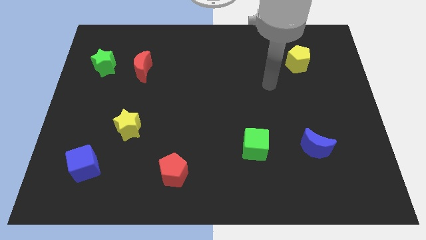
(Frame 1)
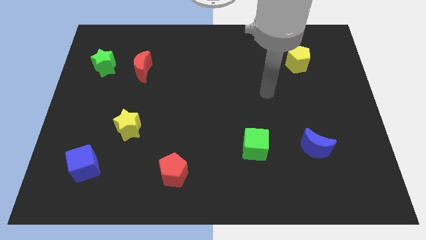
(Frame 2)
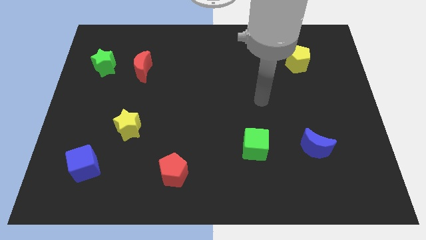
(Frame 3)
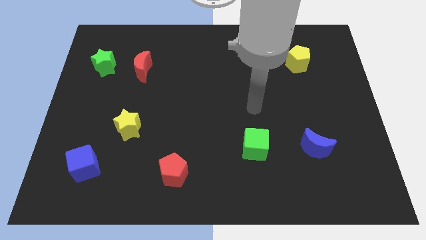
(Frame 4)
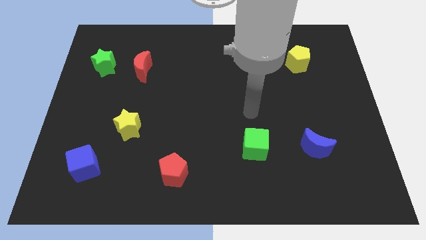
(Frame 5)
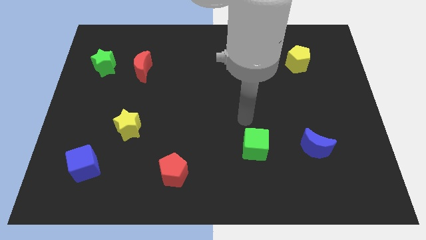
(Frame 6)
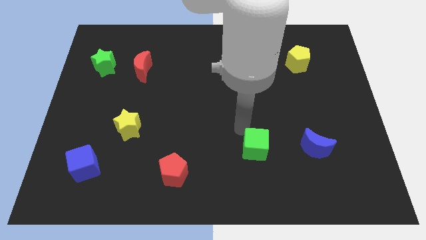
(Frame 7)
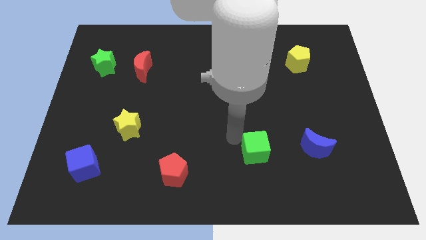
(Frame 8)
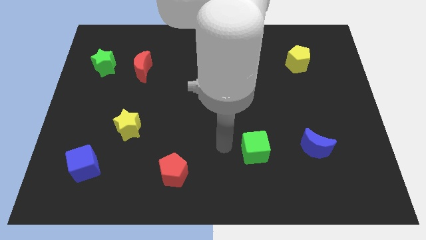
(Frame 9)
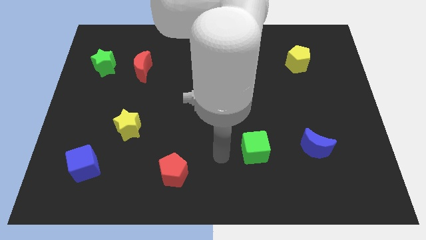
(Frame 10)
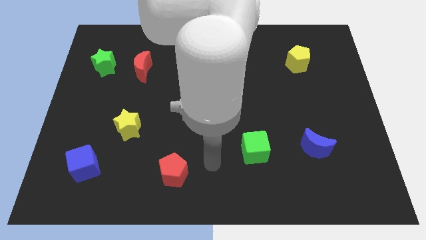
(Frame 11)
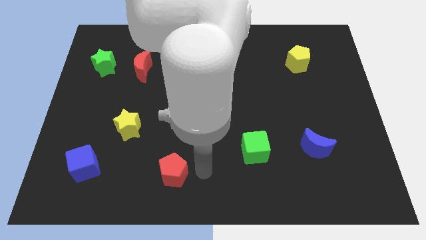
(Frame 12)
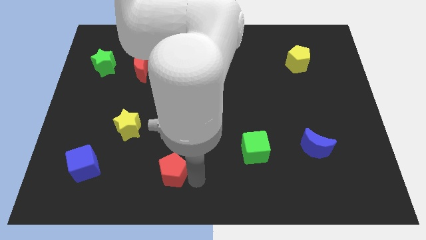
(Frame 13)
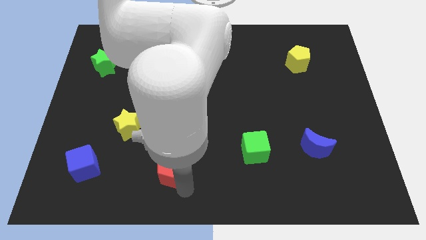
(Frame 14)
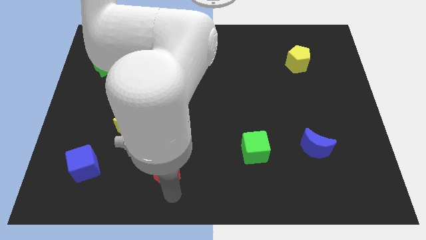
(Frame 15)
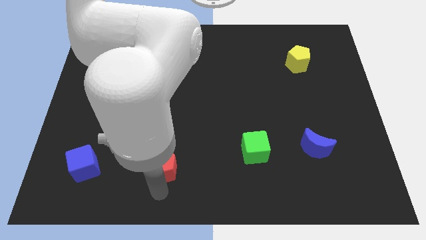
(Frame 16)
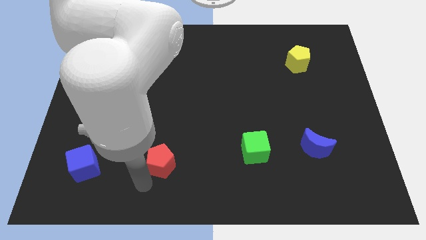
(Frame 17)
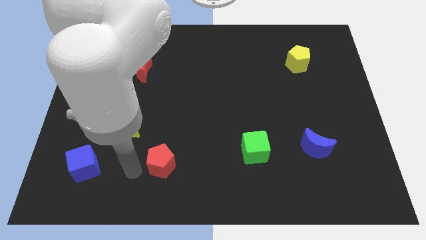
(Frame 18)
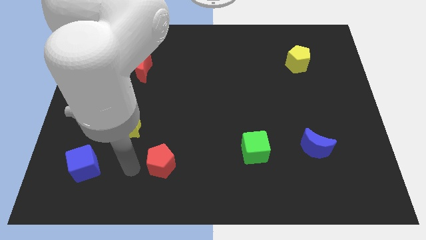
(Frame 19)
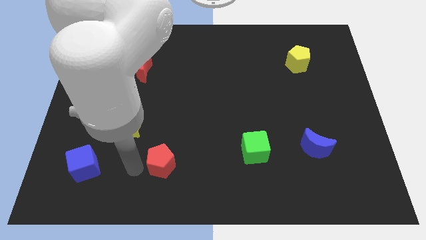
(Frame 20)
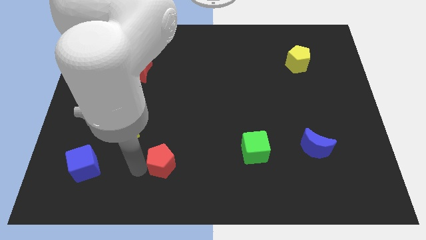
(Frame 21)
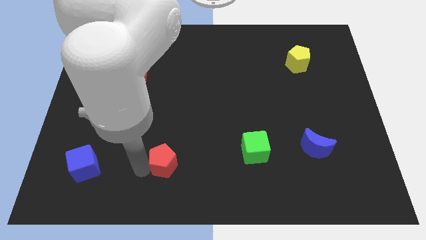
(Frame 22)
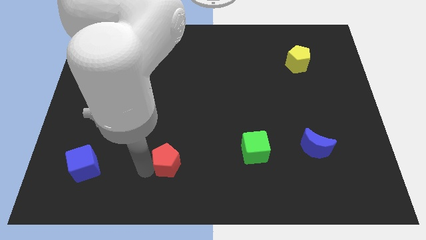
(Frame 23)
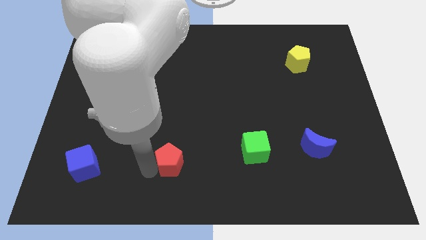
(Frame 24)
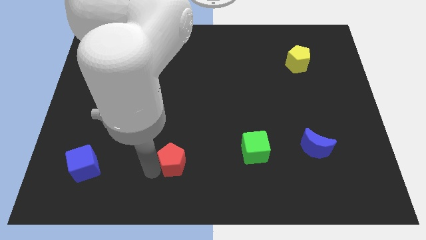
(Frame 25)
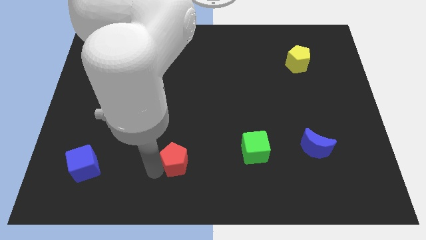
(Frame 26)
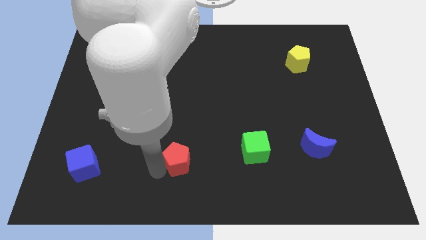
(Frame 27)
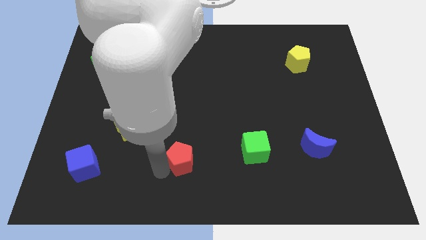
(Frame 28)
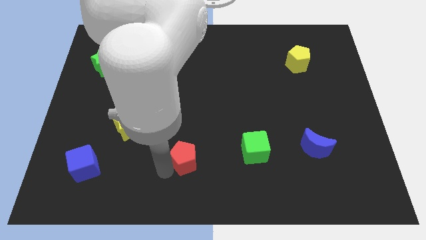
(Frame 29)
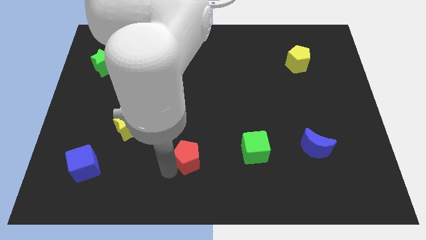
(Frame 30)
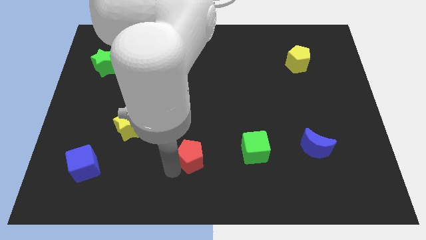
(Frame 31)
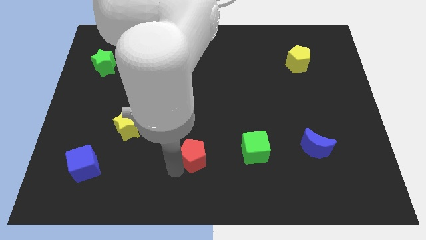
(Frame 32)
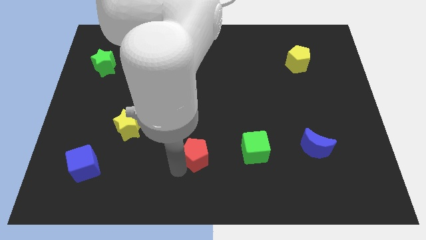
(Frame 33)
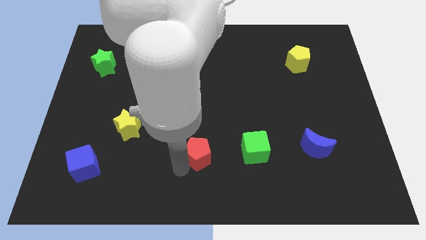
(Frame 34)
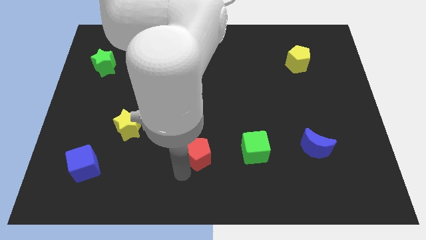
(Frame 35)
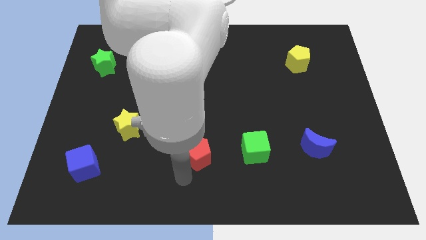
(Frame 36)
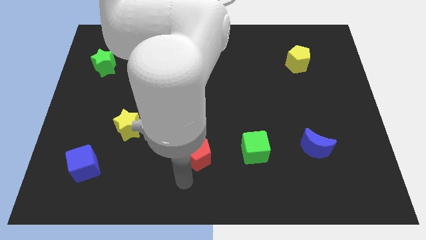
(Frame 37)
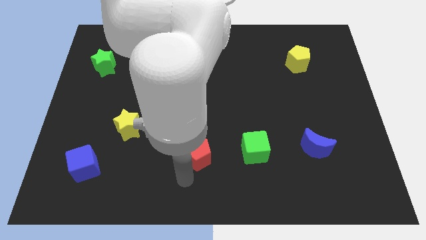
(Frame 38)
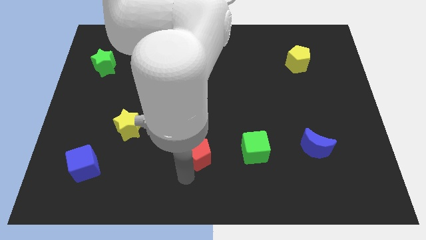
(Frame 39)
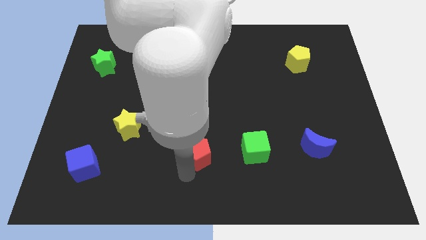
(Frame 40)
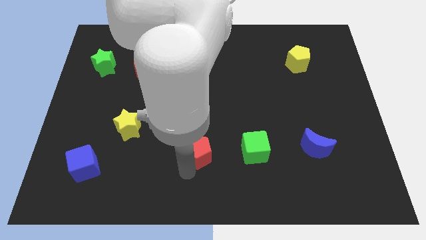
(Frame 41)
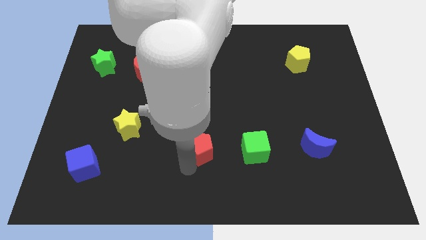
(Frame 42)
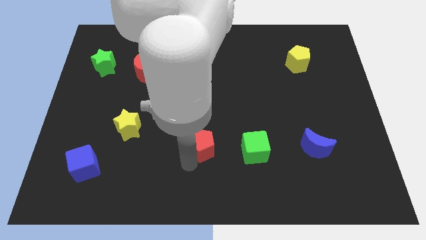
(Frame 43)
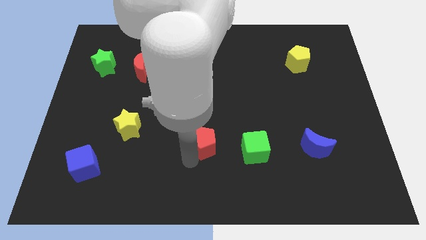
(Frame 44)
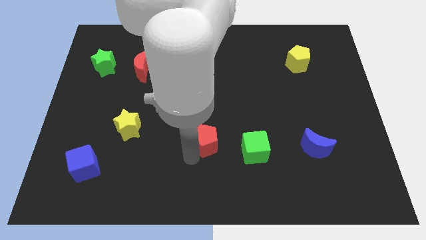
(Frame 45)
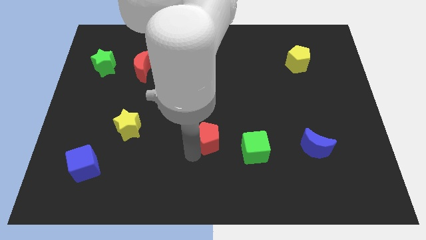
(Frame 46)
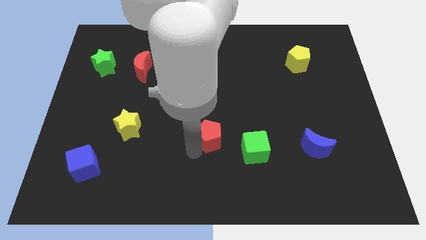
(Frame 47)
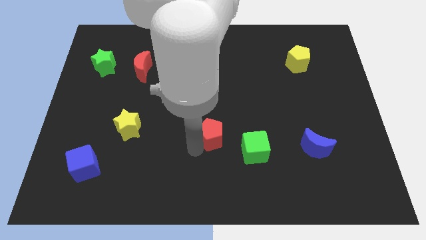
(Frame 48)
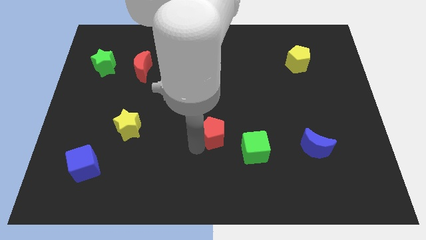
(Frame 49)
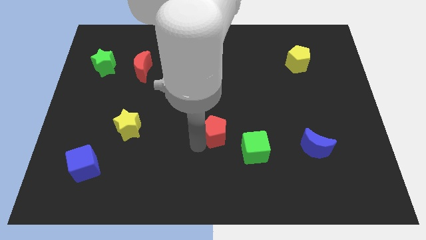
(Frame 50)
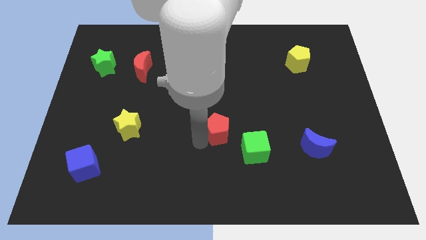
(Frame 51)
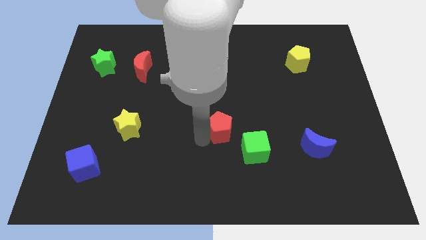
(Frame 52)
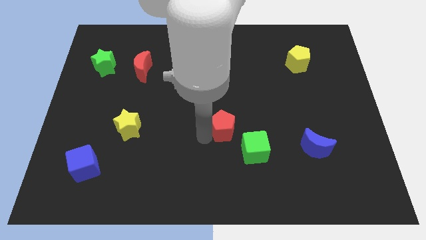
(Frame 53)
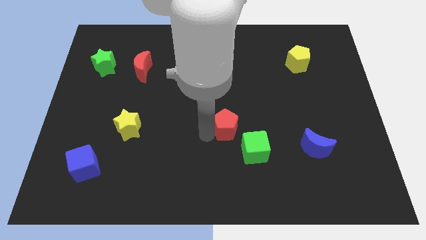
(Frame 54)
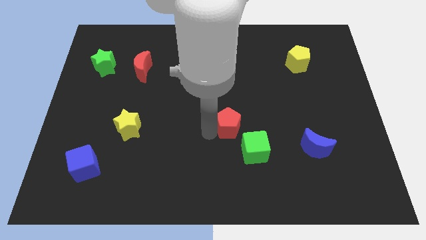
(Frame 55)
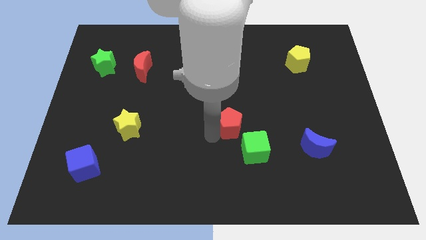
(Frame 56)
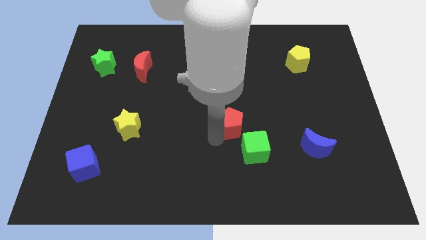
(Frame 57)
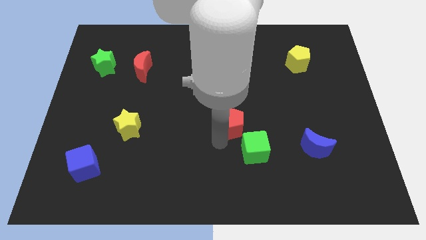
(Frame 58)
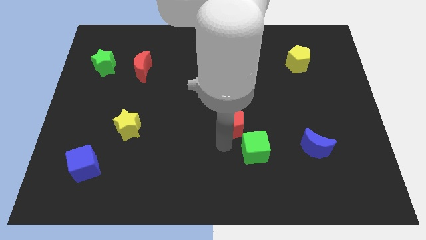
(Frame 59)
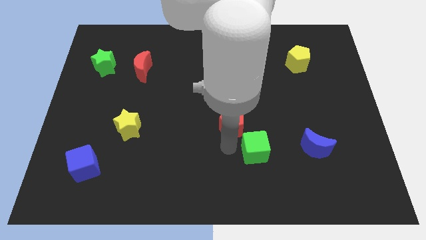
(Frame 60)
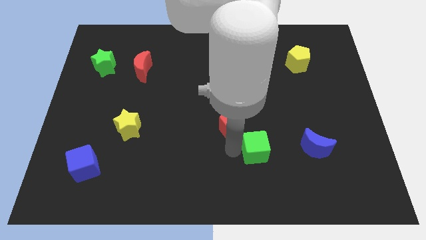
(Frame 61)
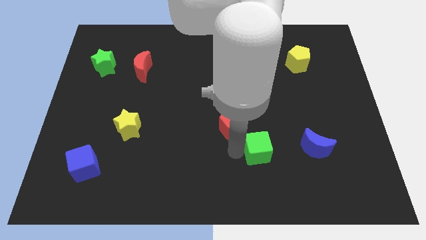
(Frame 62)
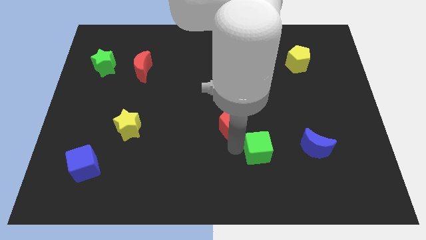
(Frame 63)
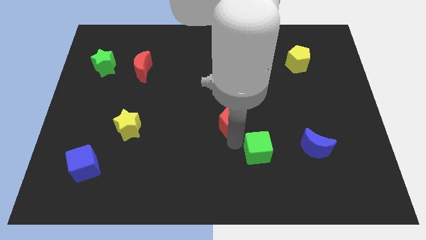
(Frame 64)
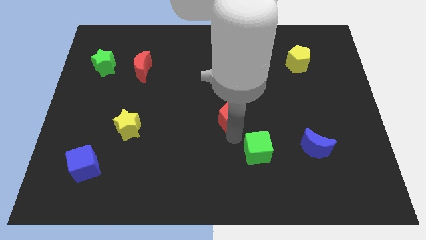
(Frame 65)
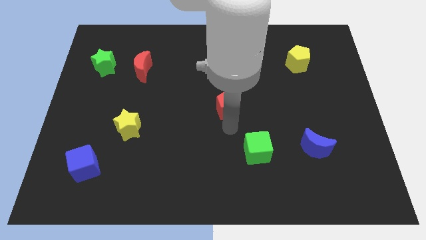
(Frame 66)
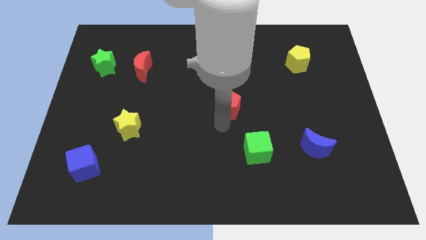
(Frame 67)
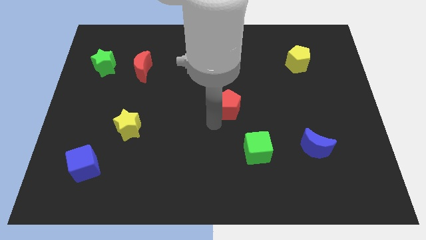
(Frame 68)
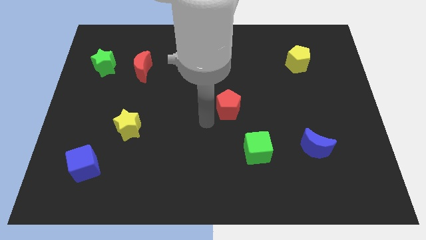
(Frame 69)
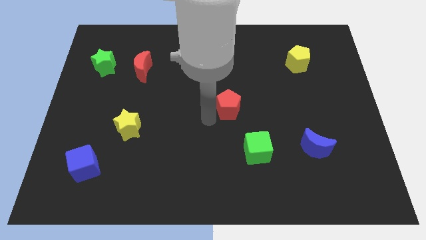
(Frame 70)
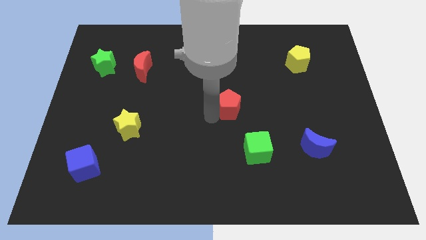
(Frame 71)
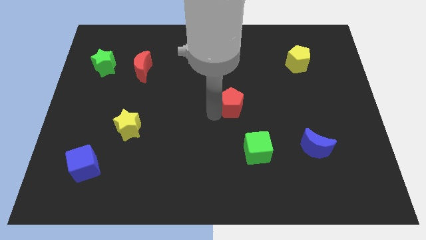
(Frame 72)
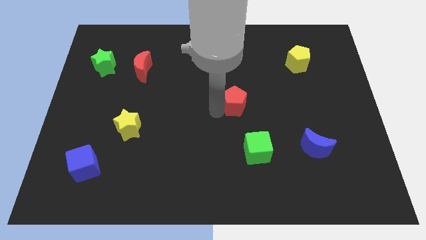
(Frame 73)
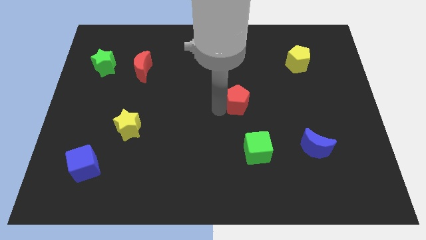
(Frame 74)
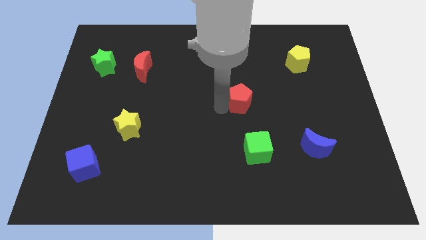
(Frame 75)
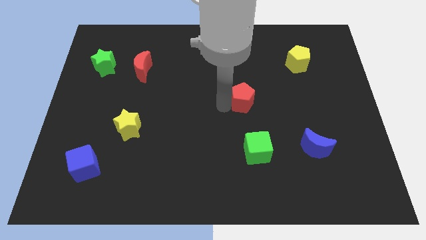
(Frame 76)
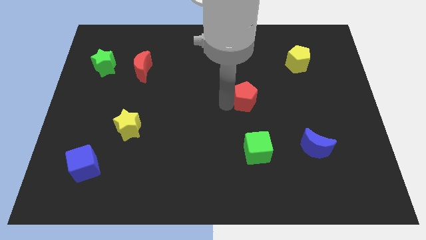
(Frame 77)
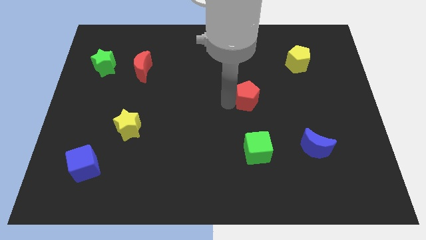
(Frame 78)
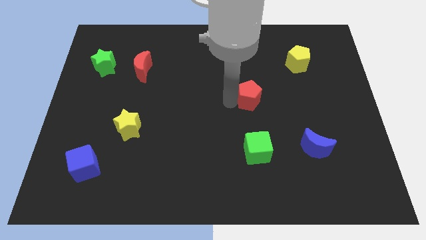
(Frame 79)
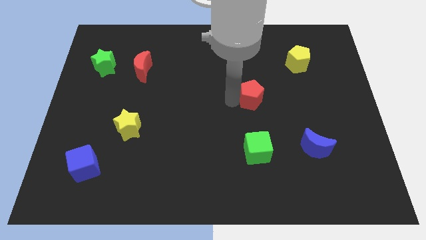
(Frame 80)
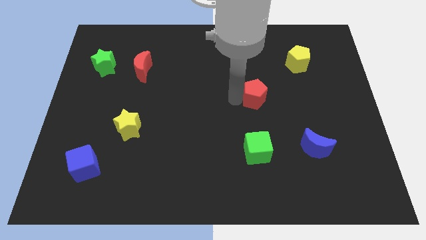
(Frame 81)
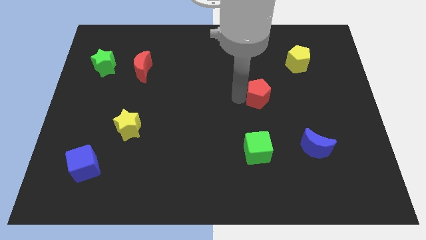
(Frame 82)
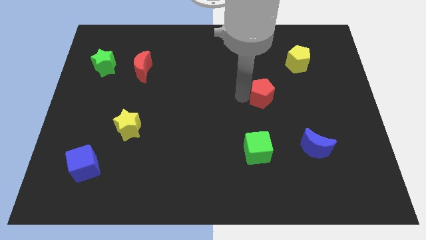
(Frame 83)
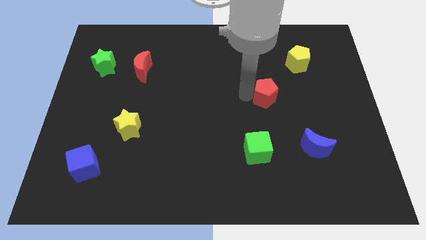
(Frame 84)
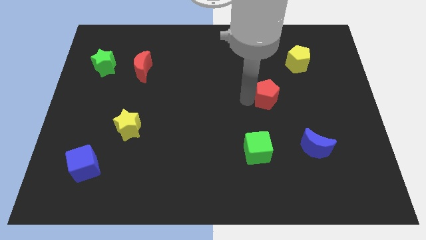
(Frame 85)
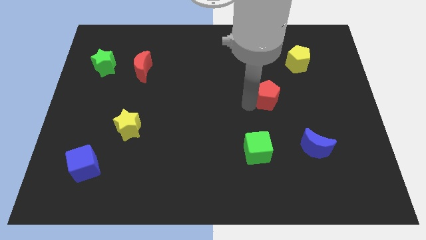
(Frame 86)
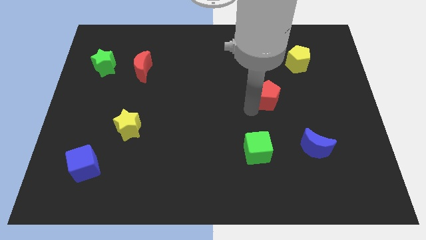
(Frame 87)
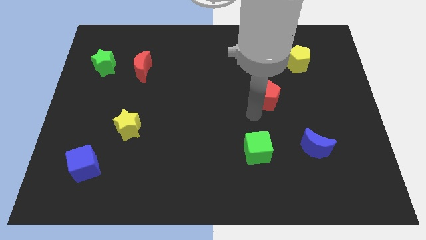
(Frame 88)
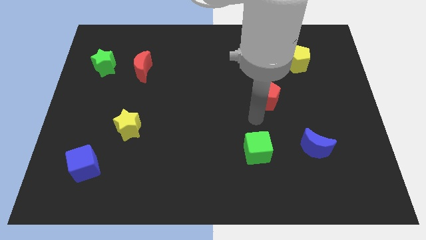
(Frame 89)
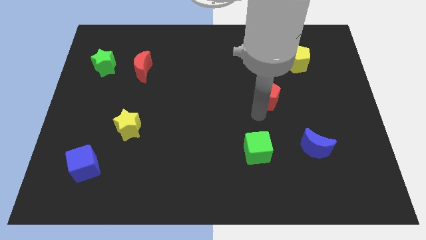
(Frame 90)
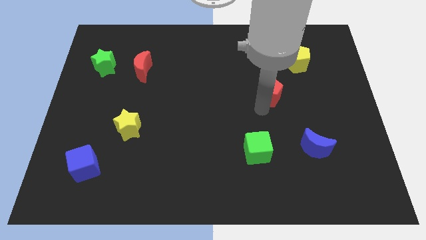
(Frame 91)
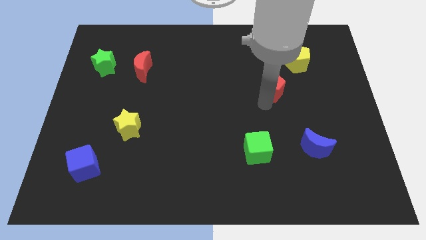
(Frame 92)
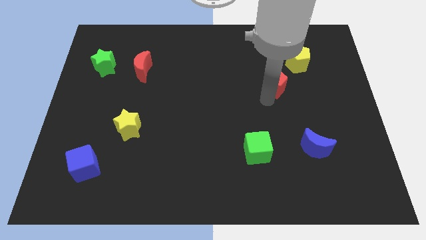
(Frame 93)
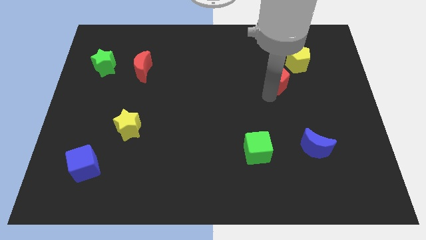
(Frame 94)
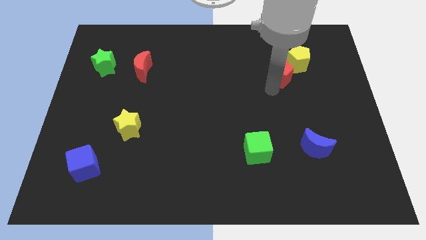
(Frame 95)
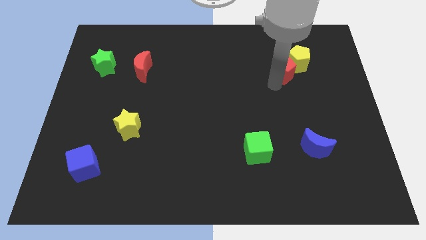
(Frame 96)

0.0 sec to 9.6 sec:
put the red pentagon close to the yellow pentagon
